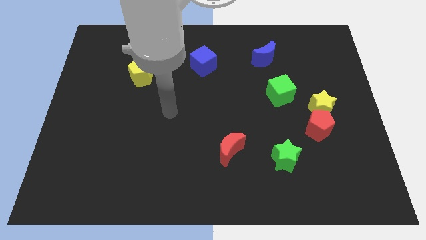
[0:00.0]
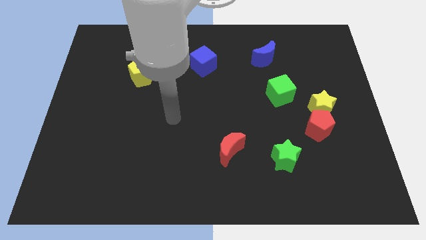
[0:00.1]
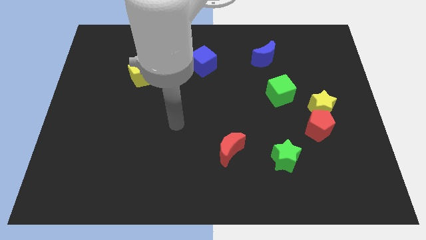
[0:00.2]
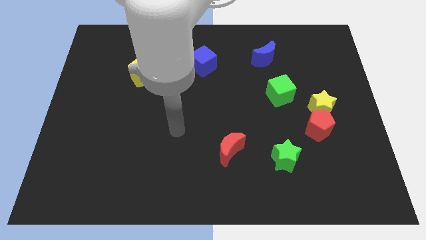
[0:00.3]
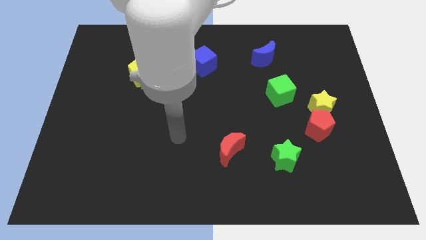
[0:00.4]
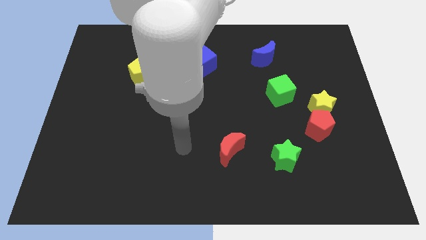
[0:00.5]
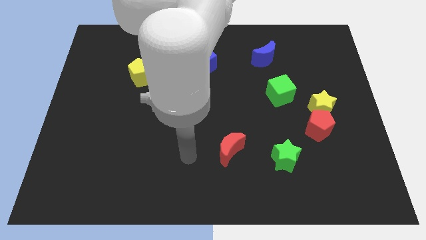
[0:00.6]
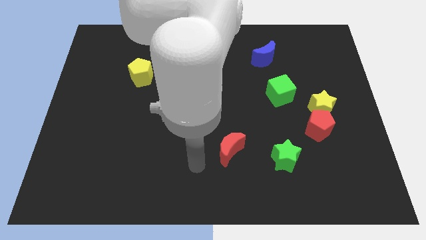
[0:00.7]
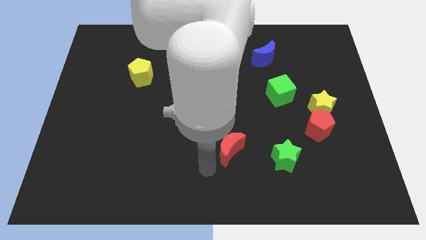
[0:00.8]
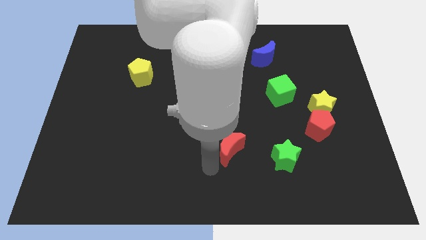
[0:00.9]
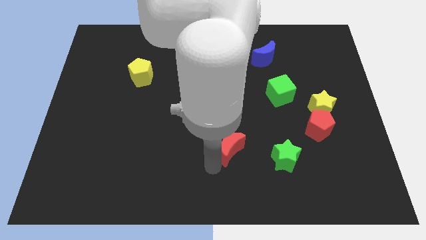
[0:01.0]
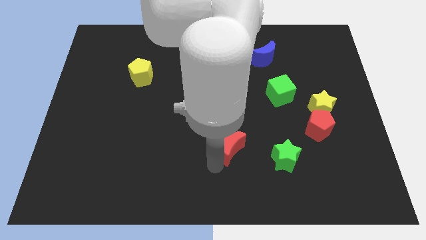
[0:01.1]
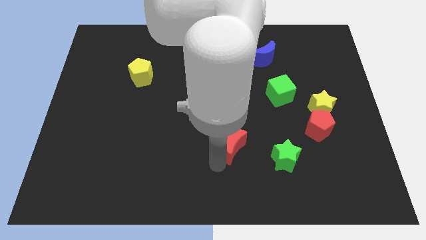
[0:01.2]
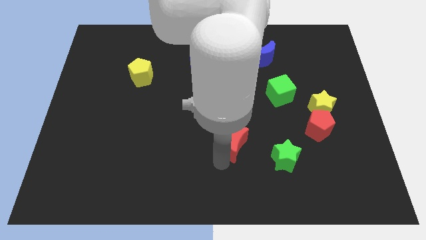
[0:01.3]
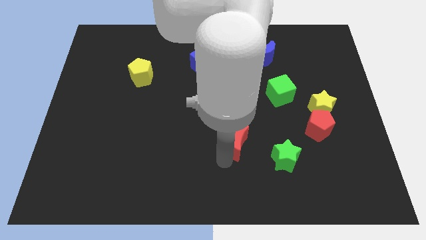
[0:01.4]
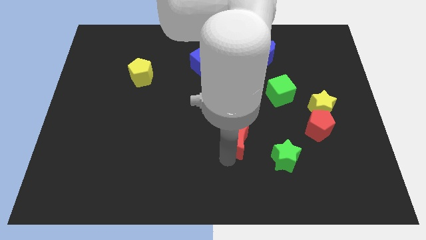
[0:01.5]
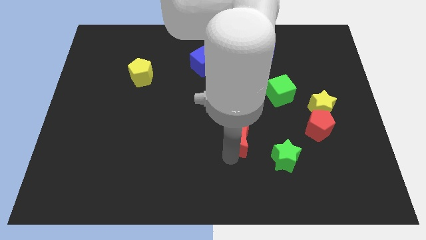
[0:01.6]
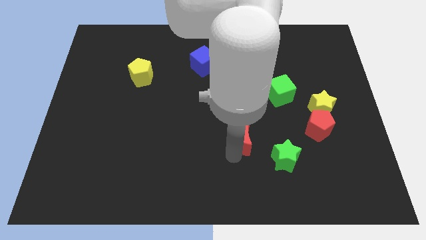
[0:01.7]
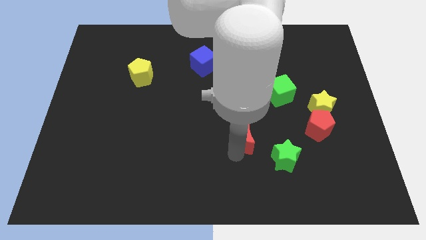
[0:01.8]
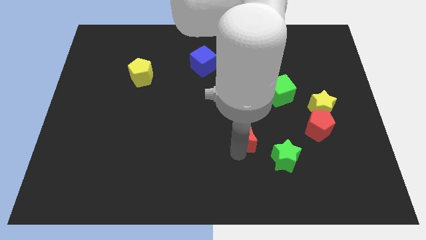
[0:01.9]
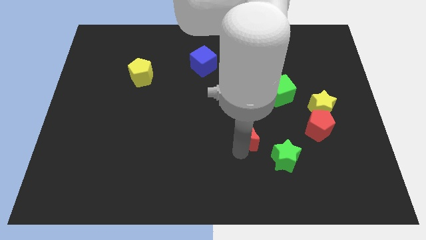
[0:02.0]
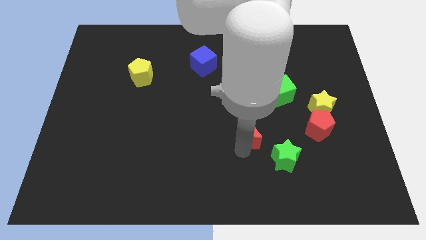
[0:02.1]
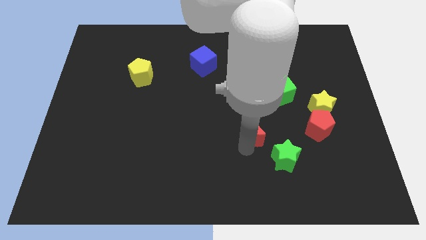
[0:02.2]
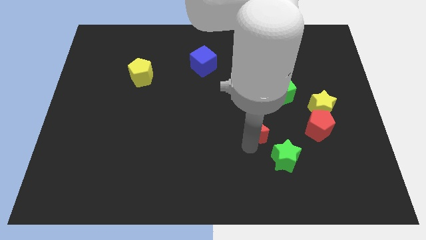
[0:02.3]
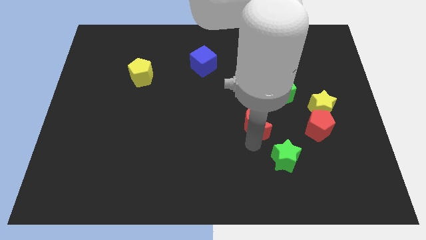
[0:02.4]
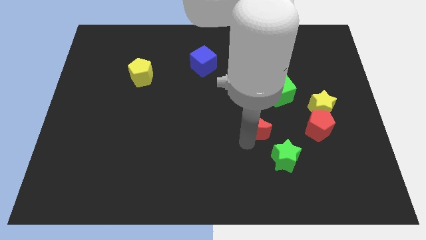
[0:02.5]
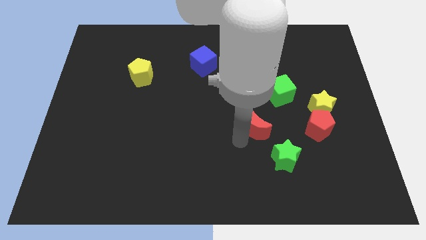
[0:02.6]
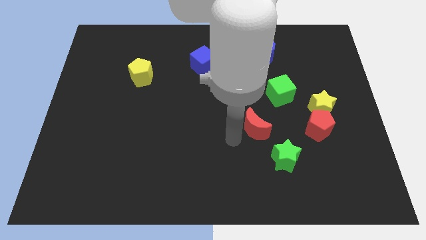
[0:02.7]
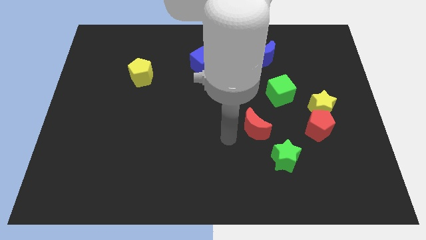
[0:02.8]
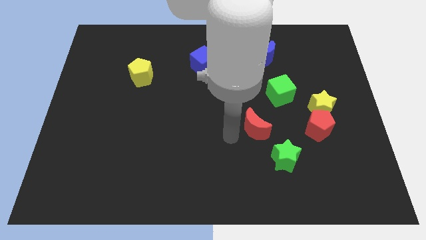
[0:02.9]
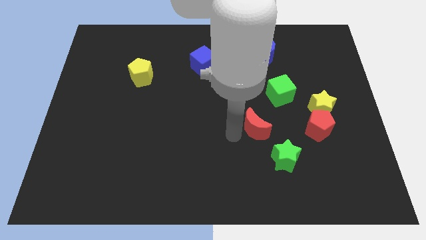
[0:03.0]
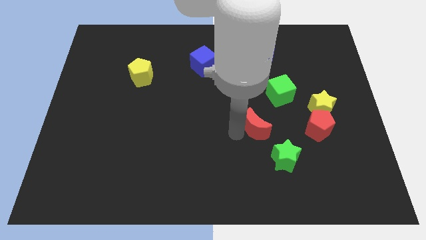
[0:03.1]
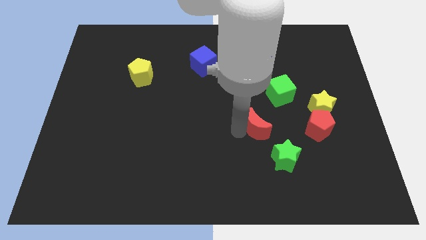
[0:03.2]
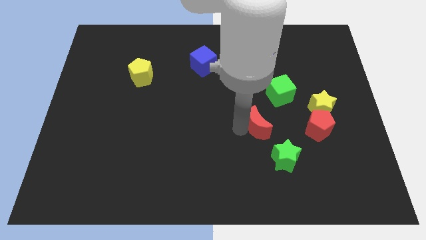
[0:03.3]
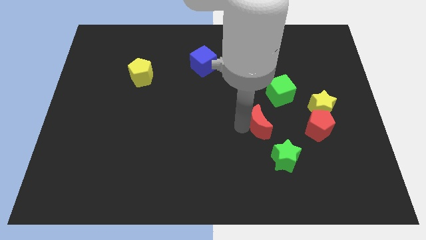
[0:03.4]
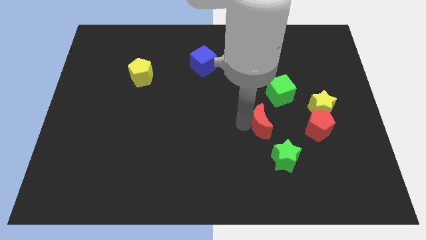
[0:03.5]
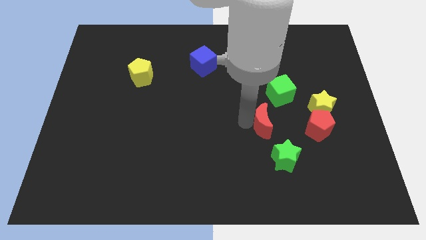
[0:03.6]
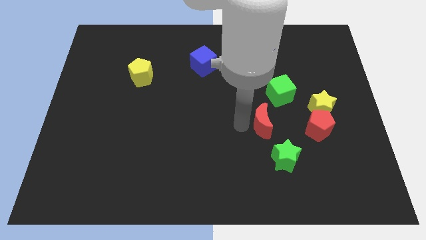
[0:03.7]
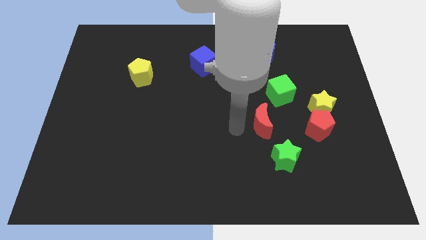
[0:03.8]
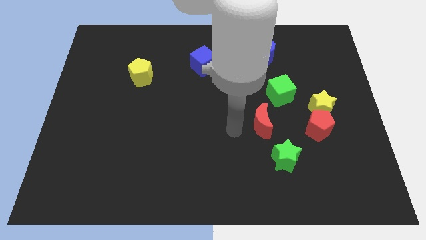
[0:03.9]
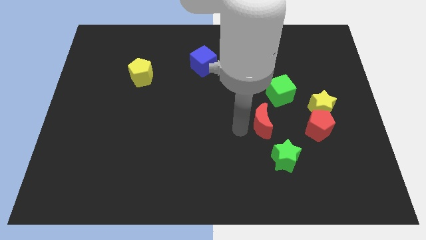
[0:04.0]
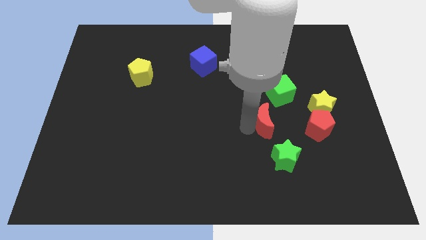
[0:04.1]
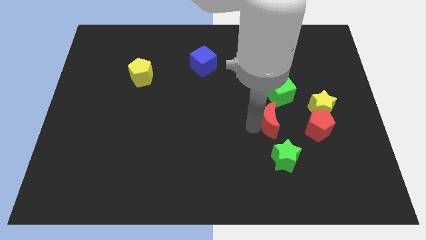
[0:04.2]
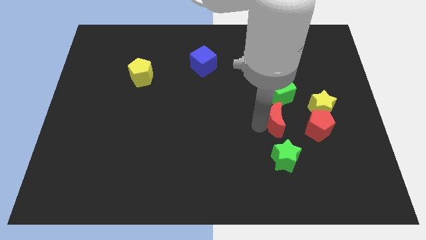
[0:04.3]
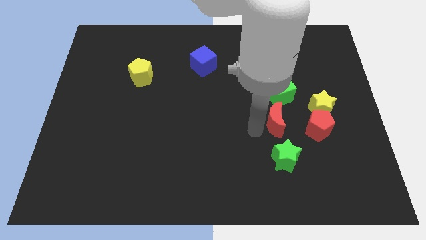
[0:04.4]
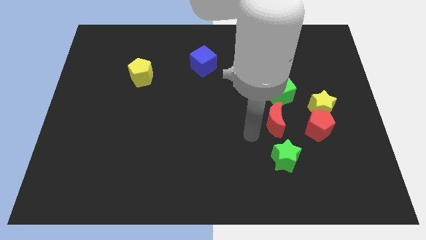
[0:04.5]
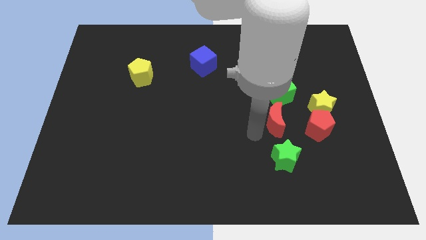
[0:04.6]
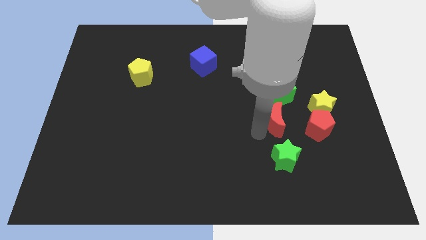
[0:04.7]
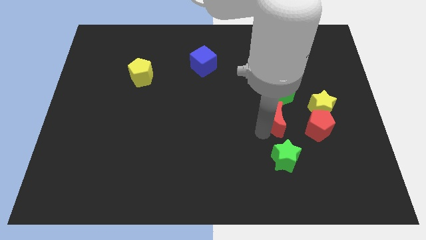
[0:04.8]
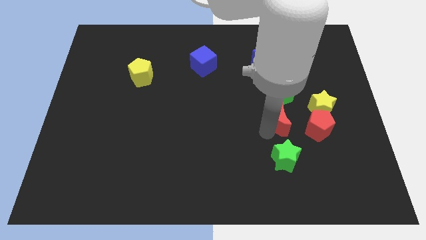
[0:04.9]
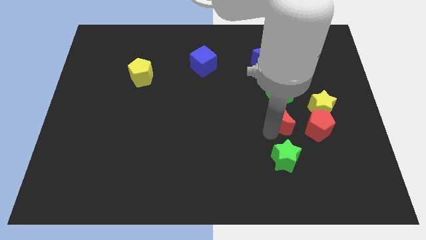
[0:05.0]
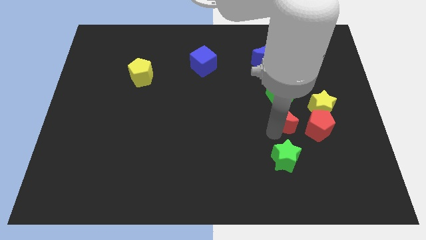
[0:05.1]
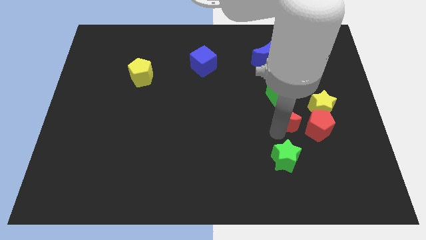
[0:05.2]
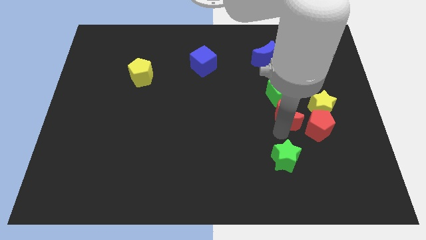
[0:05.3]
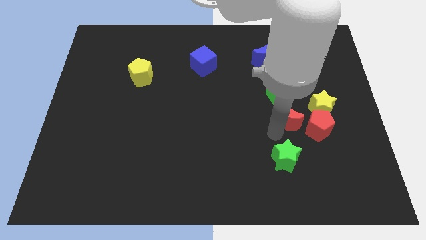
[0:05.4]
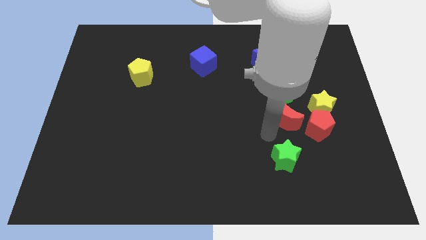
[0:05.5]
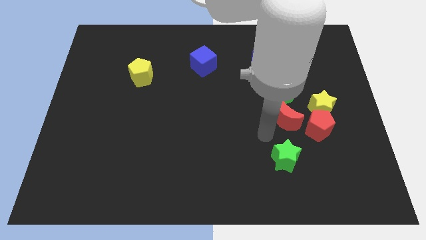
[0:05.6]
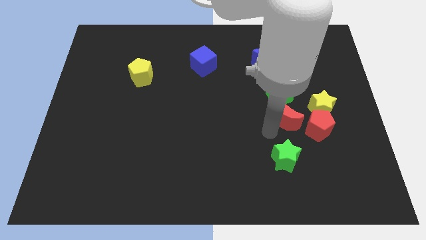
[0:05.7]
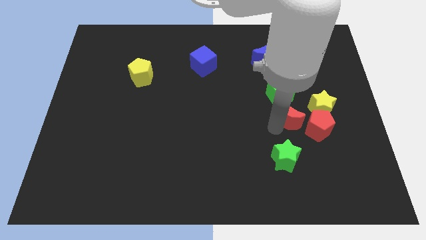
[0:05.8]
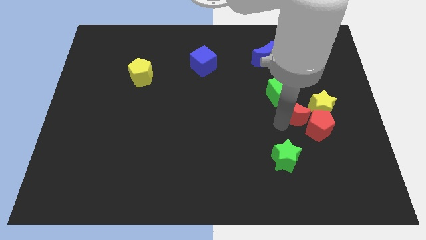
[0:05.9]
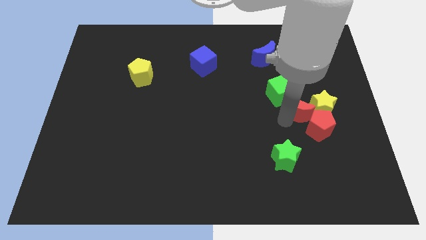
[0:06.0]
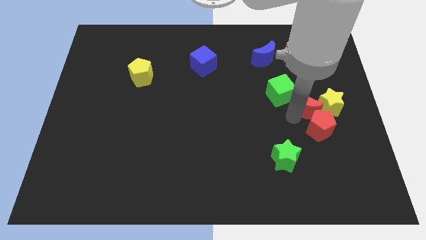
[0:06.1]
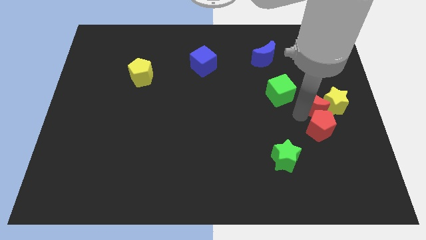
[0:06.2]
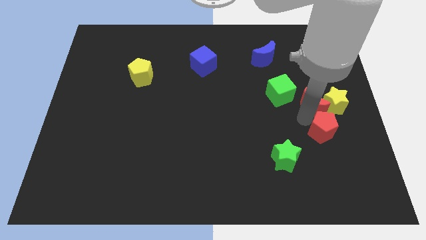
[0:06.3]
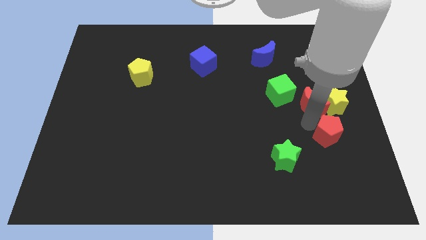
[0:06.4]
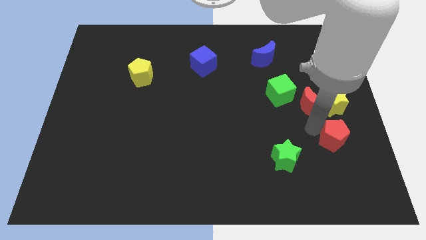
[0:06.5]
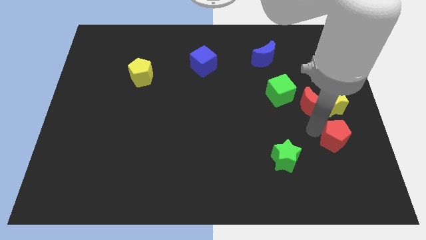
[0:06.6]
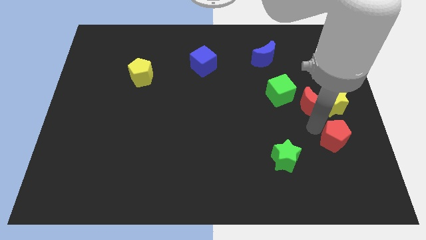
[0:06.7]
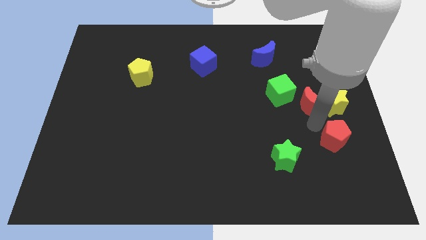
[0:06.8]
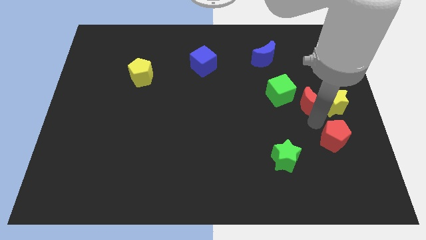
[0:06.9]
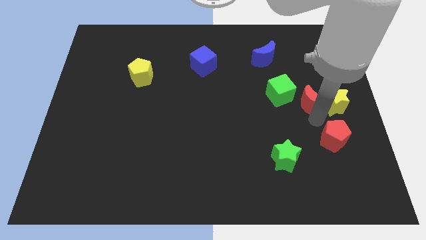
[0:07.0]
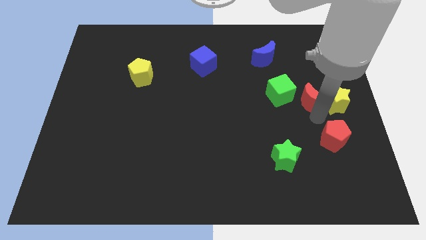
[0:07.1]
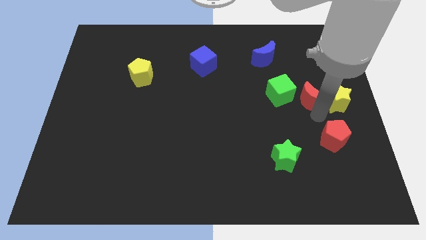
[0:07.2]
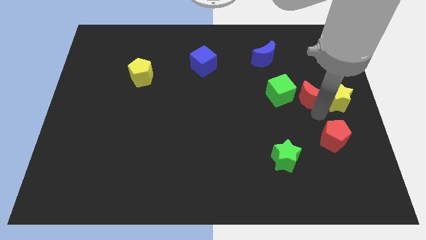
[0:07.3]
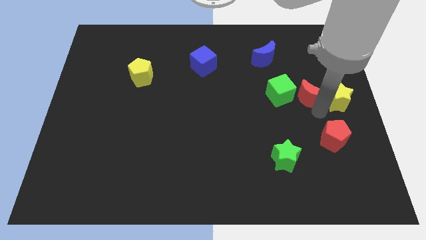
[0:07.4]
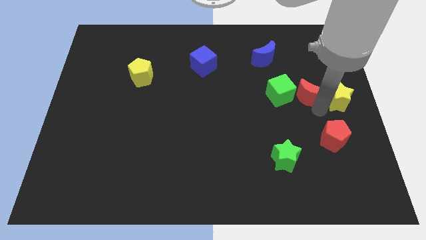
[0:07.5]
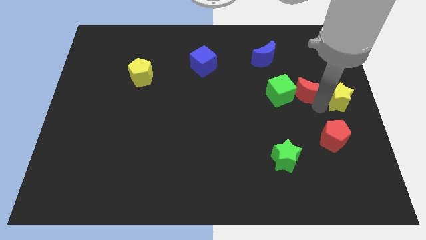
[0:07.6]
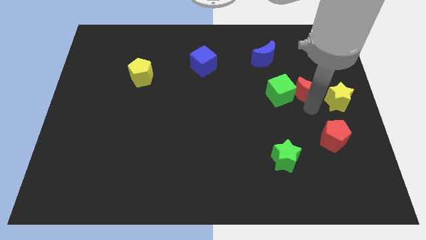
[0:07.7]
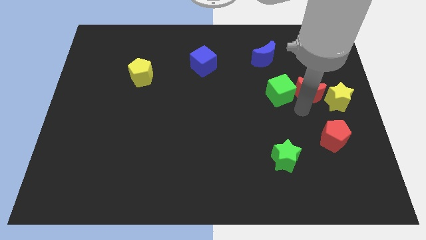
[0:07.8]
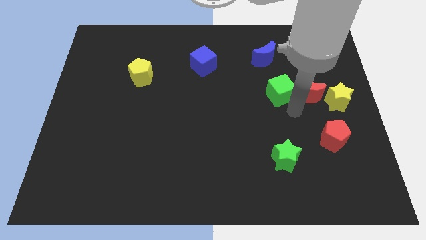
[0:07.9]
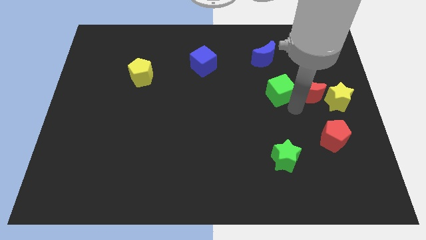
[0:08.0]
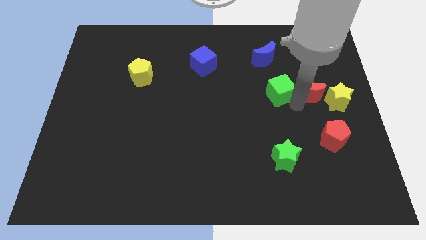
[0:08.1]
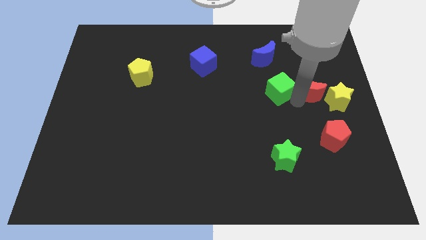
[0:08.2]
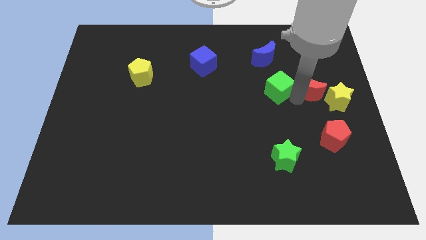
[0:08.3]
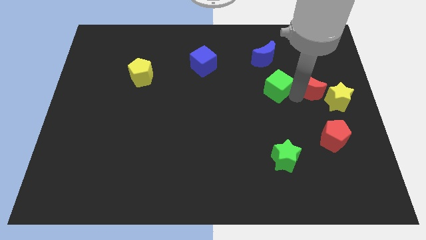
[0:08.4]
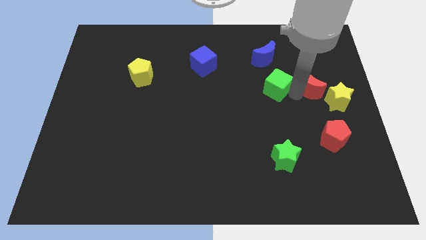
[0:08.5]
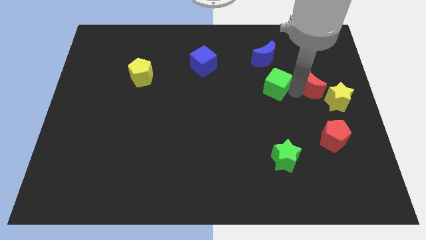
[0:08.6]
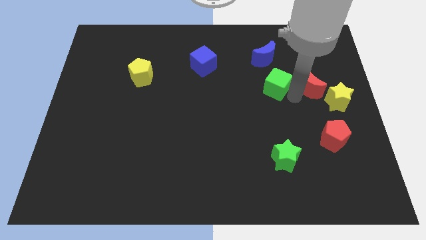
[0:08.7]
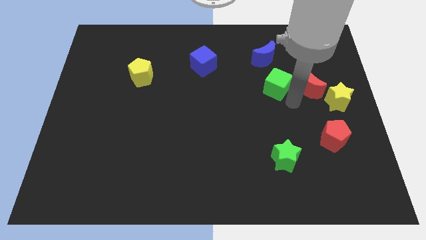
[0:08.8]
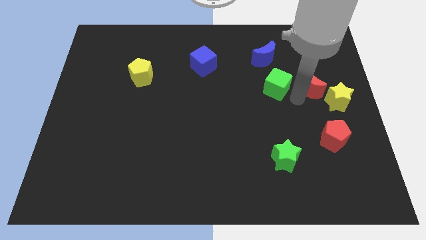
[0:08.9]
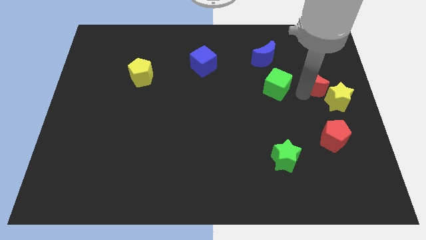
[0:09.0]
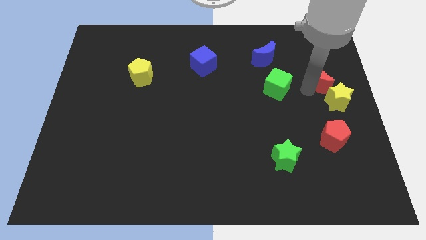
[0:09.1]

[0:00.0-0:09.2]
move the red moon to the top of the yellow star
